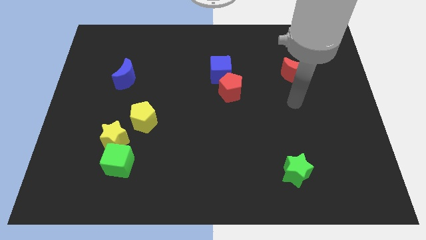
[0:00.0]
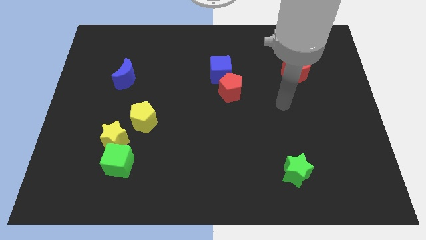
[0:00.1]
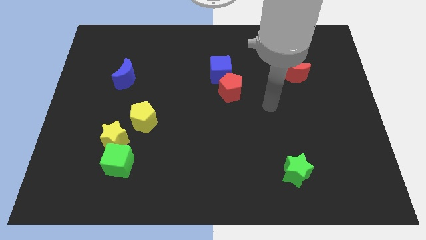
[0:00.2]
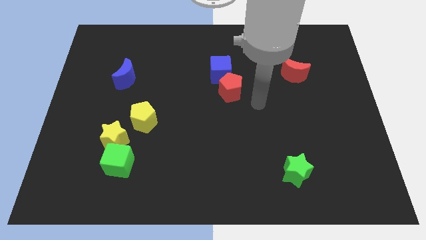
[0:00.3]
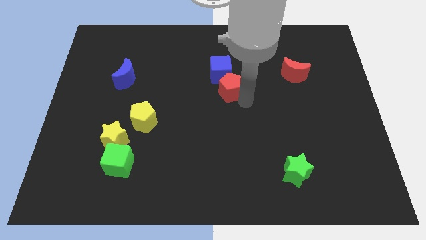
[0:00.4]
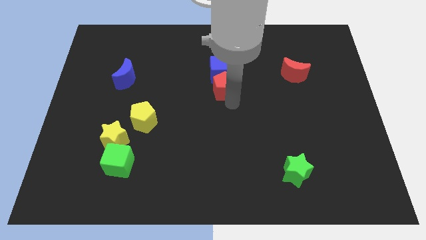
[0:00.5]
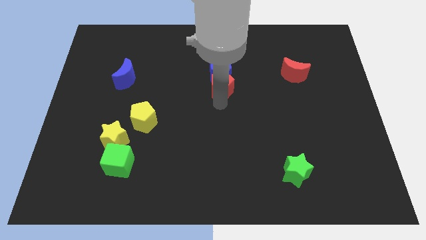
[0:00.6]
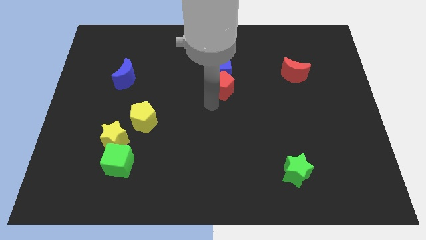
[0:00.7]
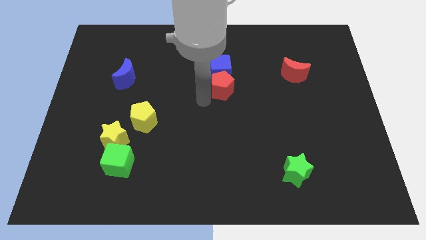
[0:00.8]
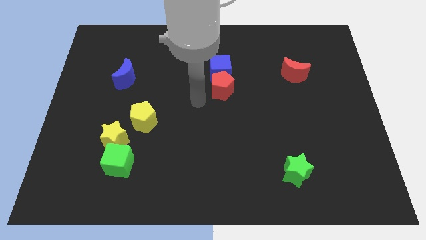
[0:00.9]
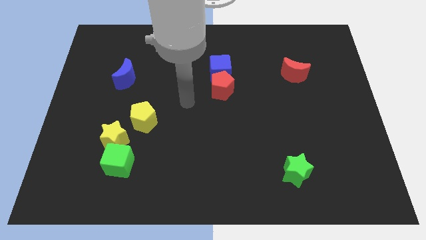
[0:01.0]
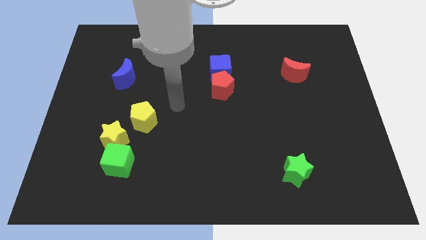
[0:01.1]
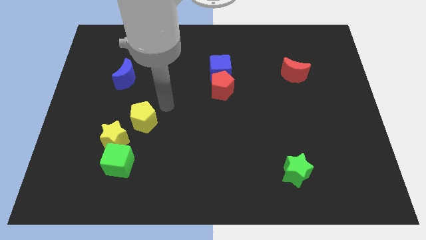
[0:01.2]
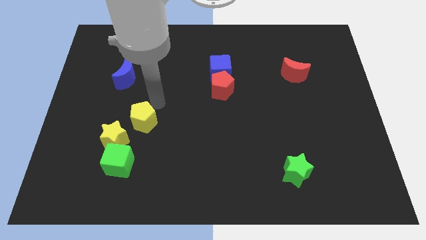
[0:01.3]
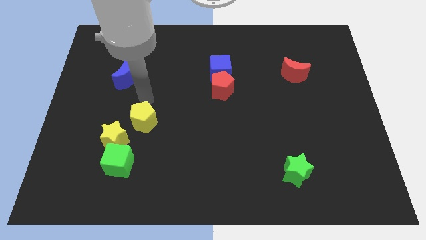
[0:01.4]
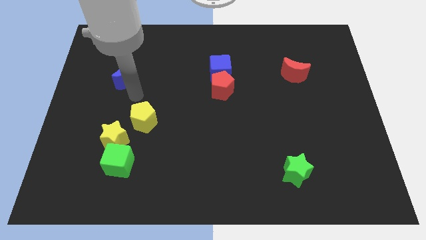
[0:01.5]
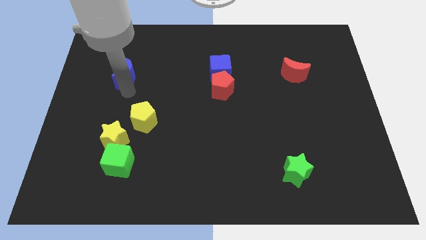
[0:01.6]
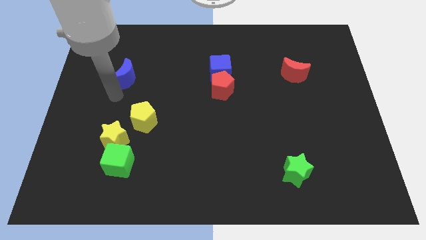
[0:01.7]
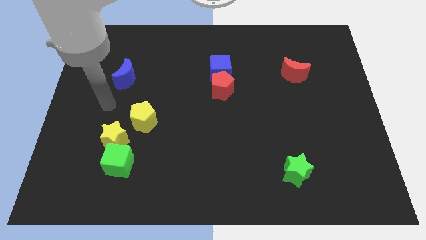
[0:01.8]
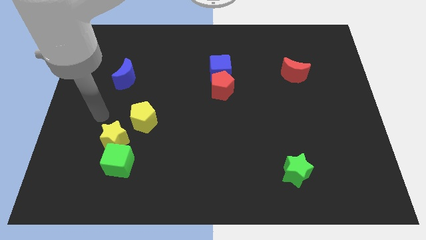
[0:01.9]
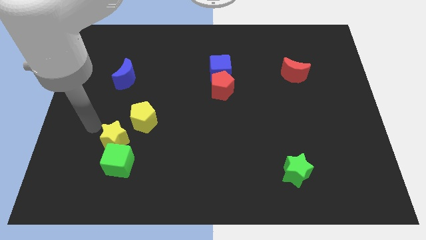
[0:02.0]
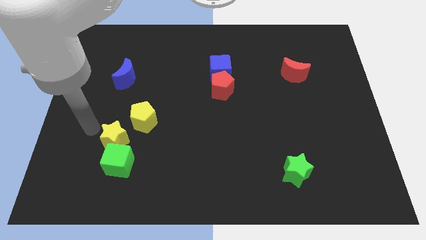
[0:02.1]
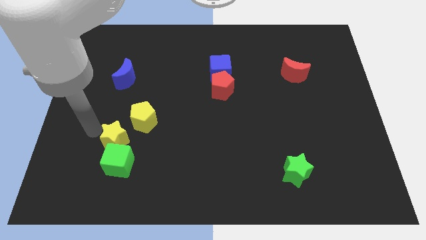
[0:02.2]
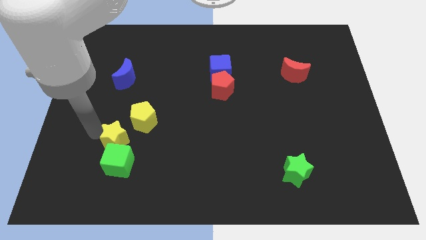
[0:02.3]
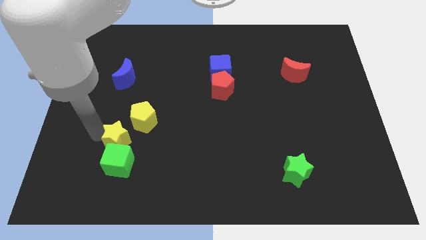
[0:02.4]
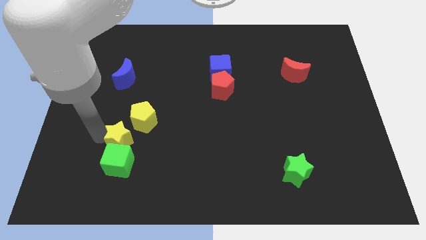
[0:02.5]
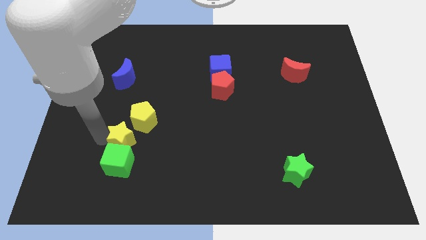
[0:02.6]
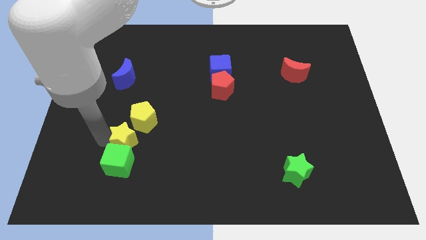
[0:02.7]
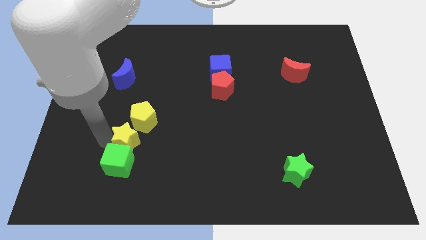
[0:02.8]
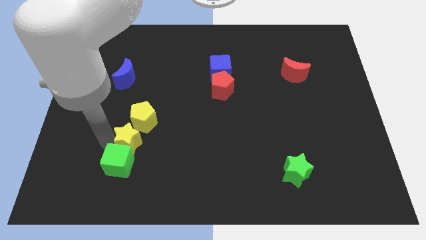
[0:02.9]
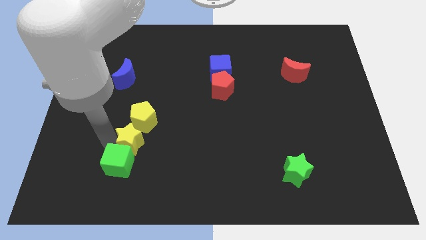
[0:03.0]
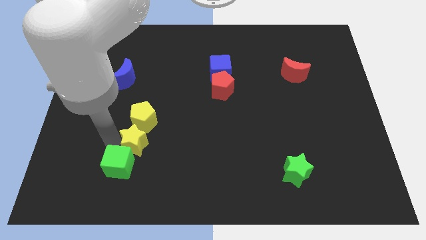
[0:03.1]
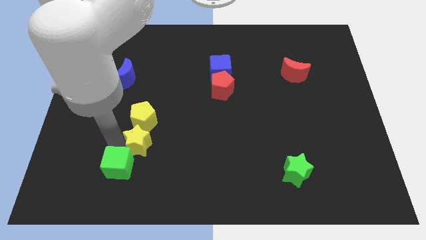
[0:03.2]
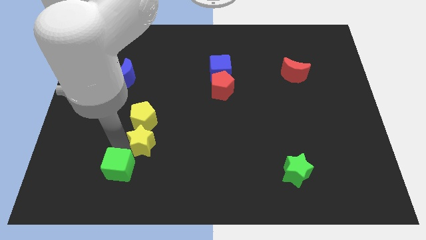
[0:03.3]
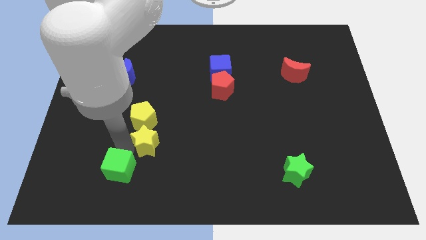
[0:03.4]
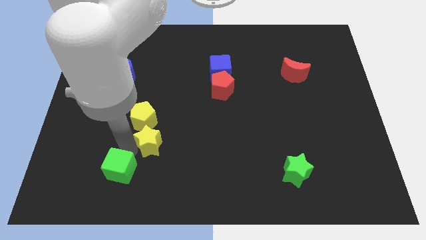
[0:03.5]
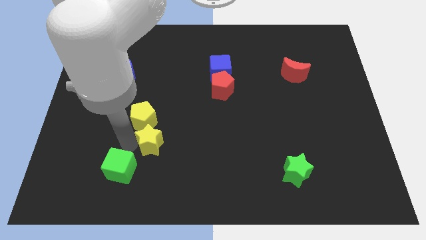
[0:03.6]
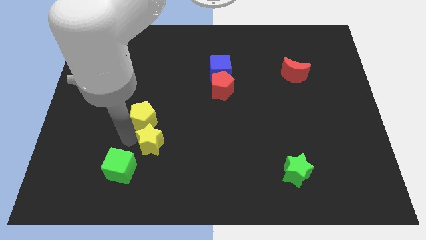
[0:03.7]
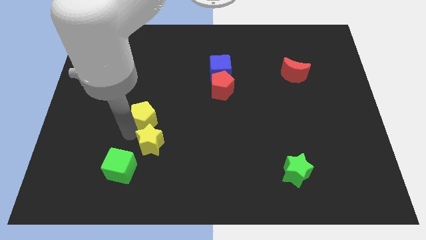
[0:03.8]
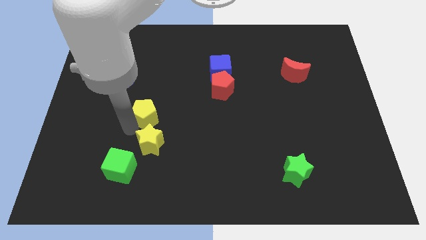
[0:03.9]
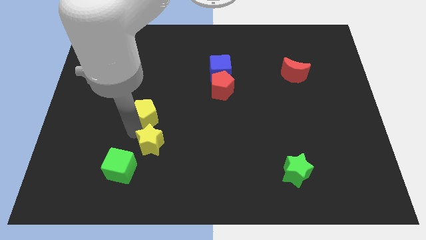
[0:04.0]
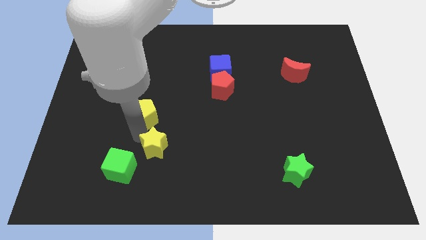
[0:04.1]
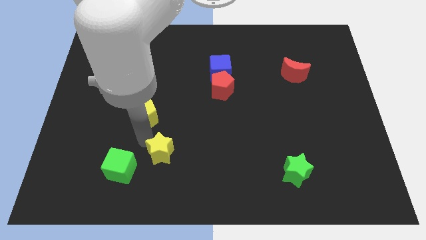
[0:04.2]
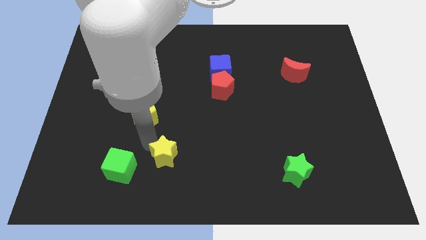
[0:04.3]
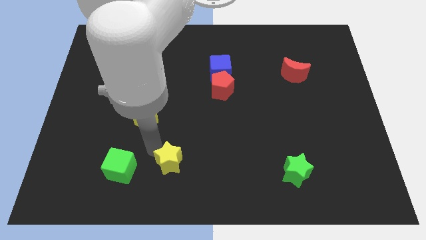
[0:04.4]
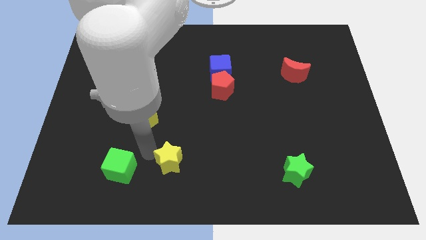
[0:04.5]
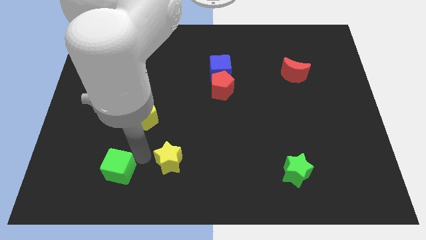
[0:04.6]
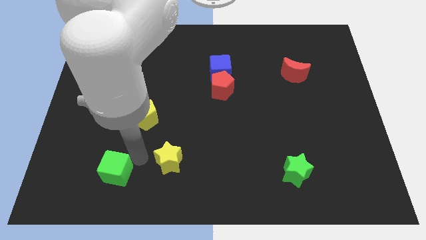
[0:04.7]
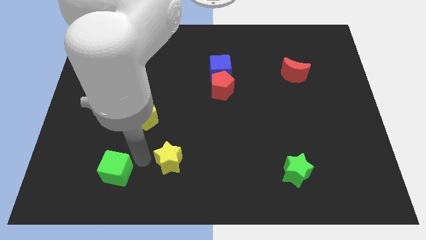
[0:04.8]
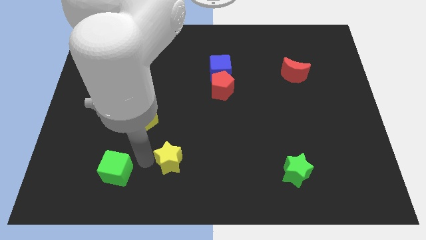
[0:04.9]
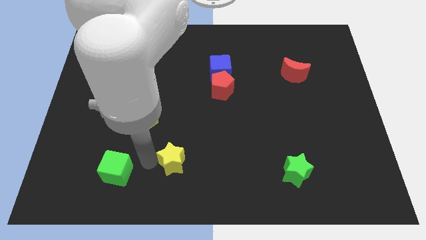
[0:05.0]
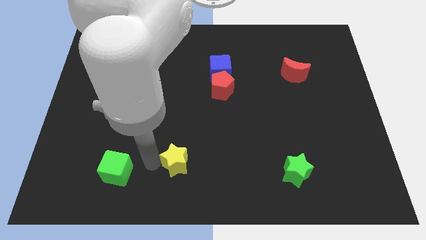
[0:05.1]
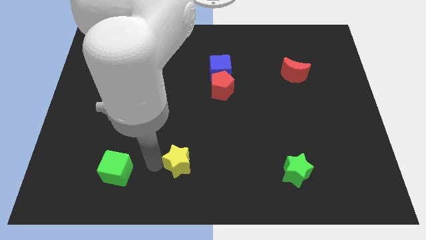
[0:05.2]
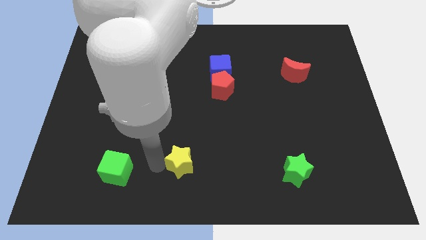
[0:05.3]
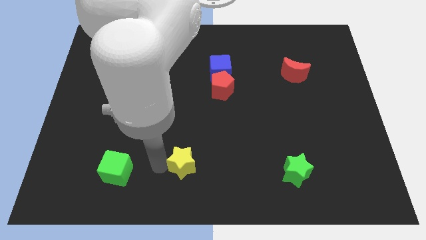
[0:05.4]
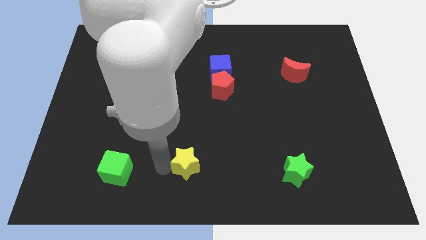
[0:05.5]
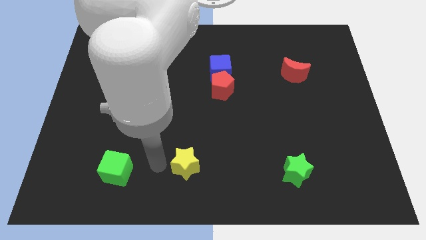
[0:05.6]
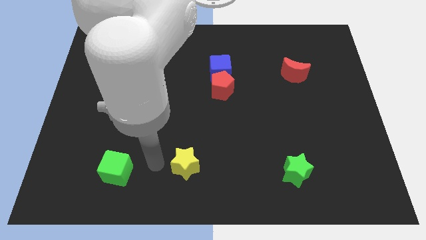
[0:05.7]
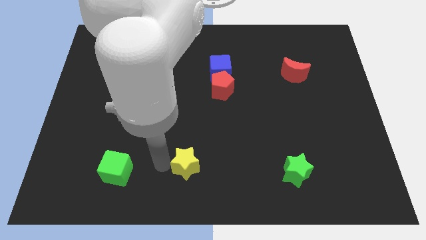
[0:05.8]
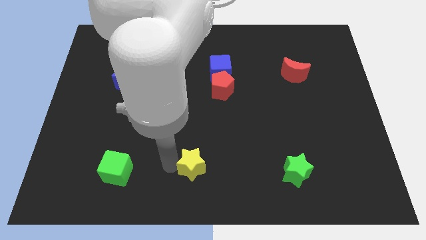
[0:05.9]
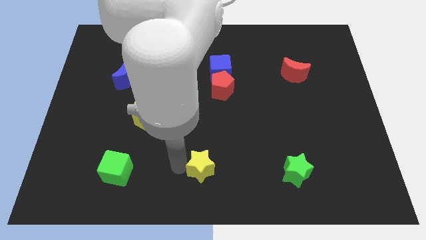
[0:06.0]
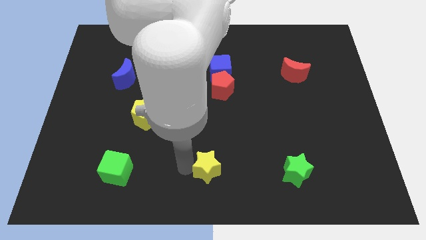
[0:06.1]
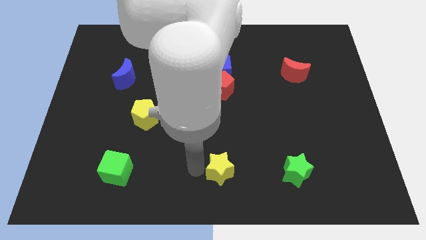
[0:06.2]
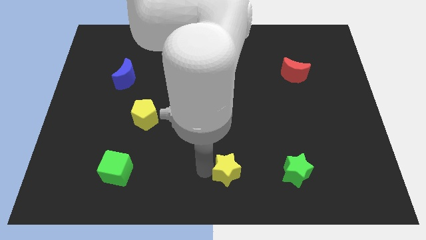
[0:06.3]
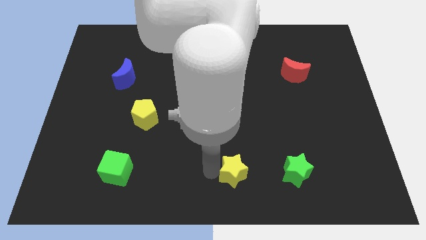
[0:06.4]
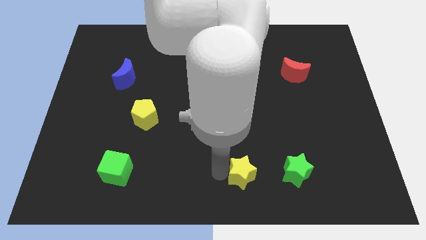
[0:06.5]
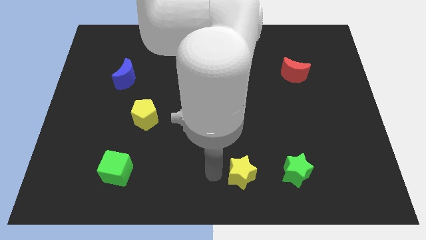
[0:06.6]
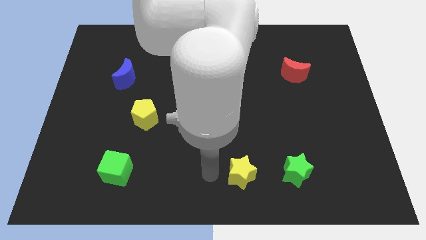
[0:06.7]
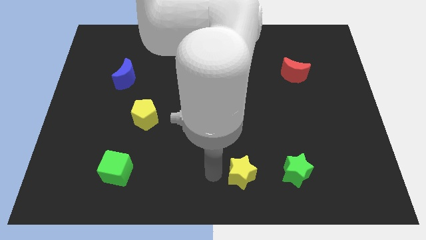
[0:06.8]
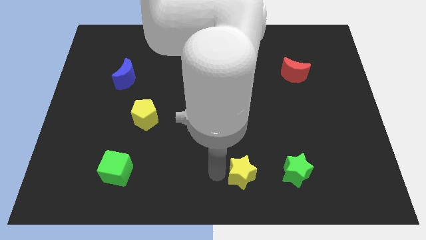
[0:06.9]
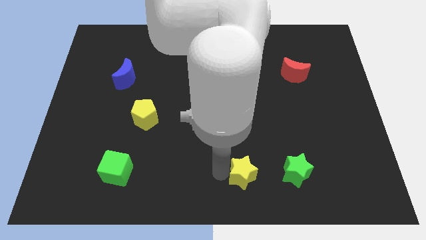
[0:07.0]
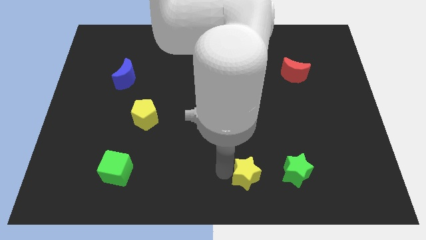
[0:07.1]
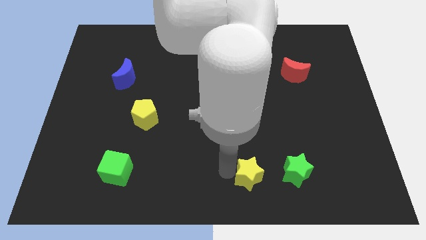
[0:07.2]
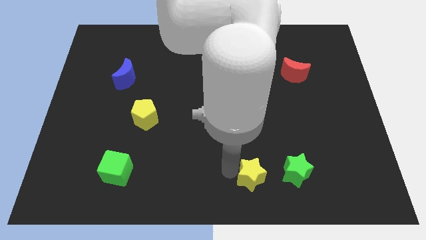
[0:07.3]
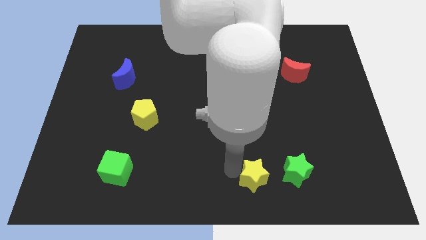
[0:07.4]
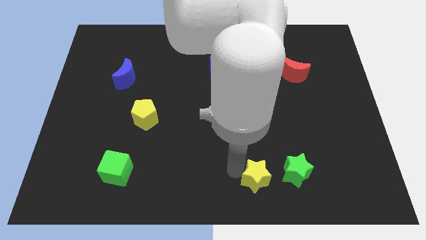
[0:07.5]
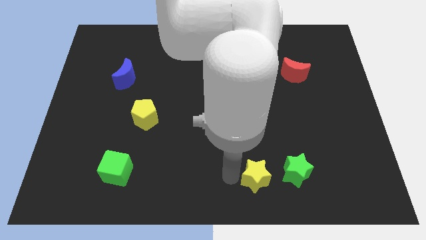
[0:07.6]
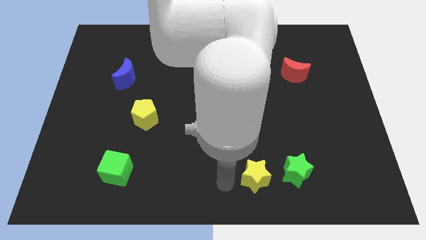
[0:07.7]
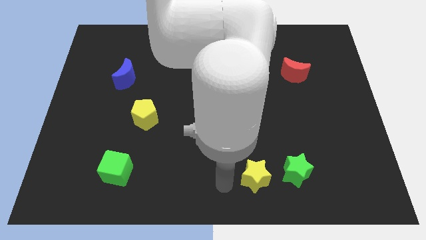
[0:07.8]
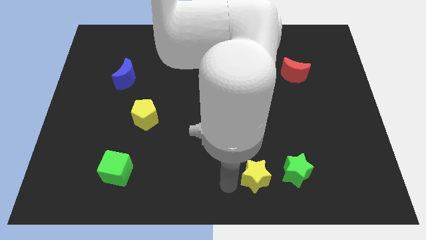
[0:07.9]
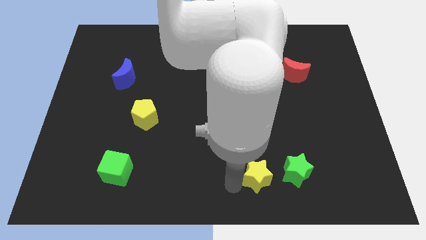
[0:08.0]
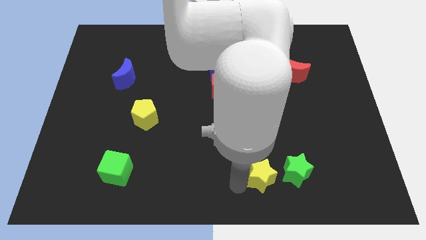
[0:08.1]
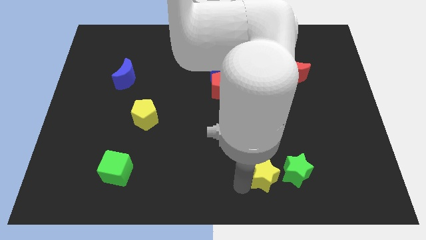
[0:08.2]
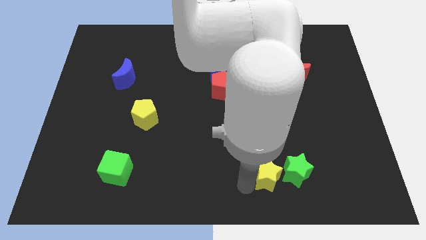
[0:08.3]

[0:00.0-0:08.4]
move the yellow star to the green star
